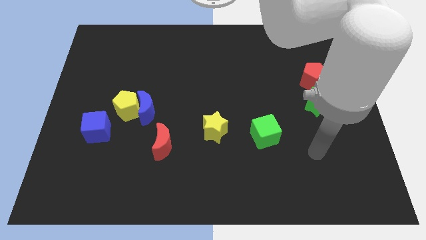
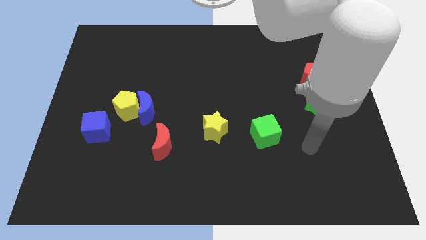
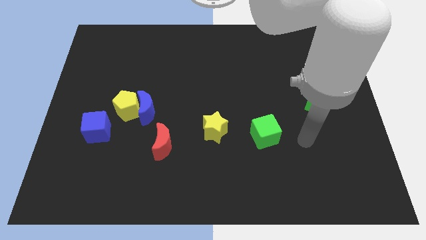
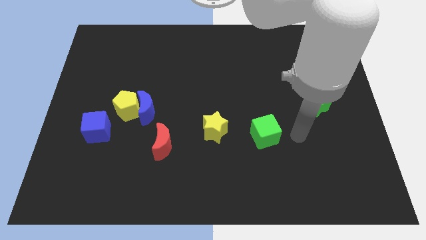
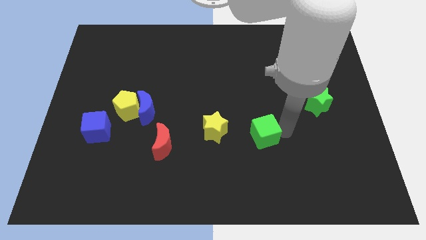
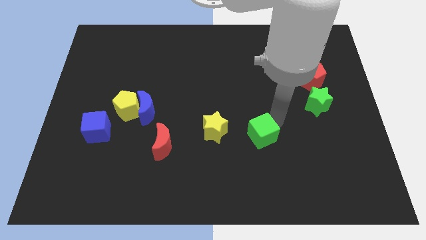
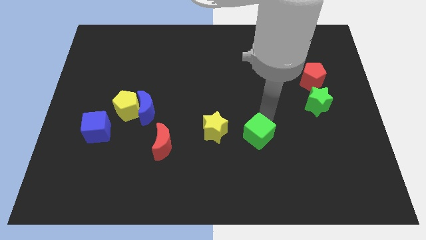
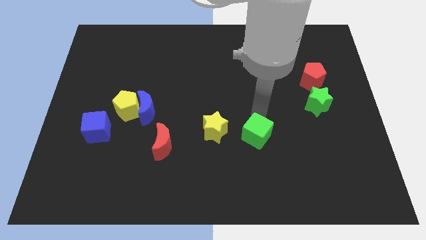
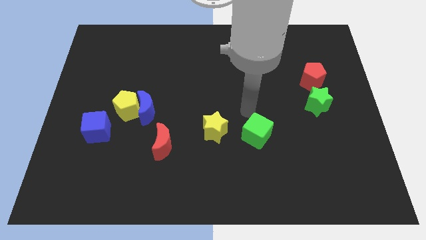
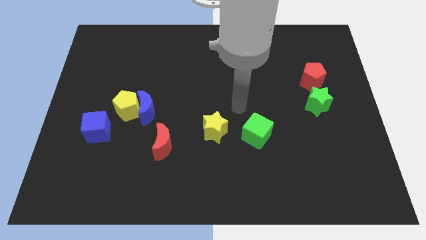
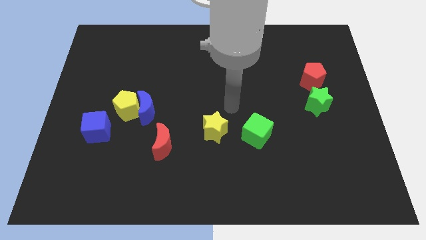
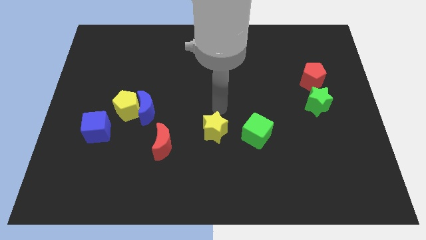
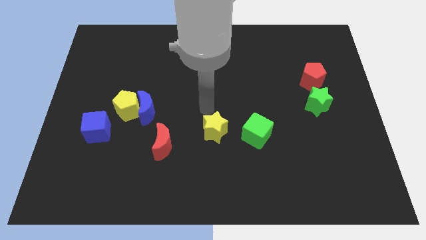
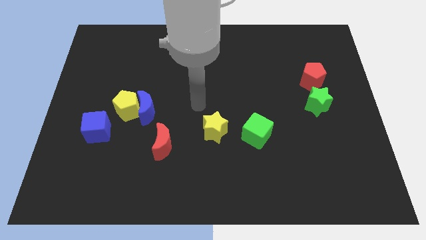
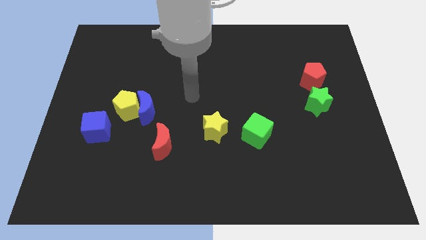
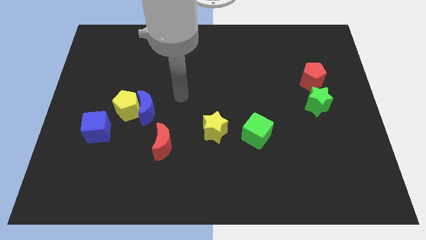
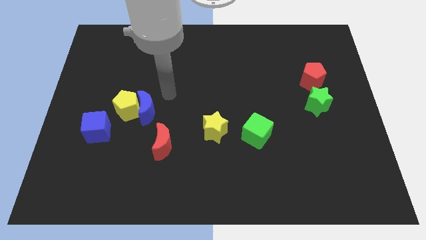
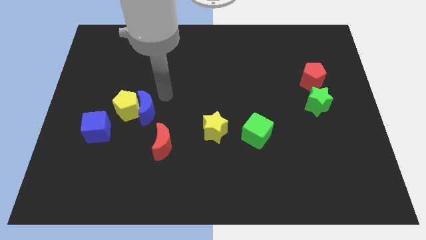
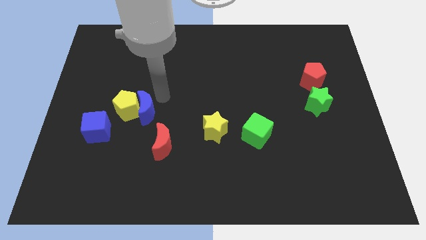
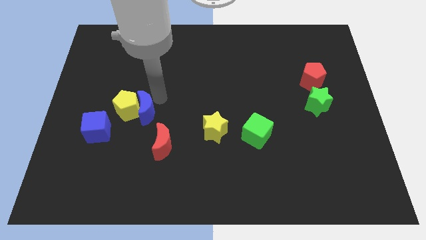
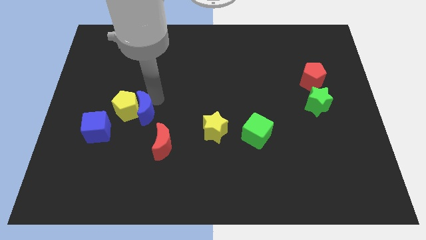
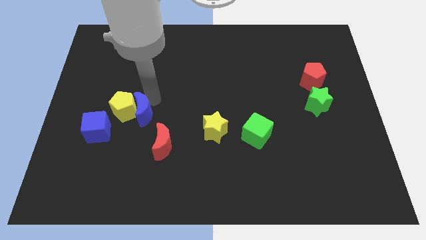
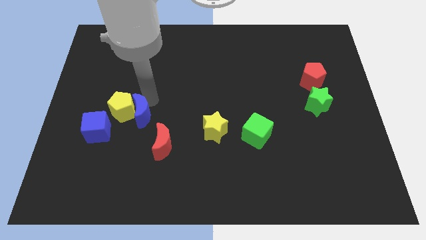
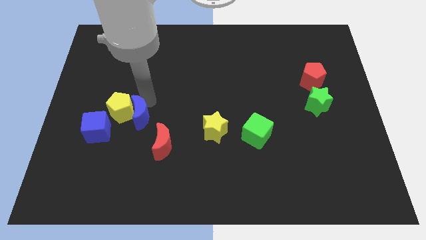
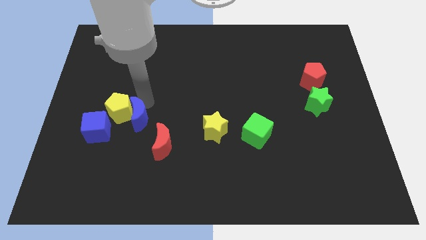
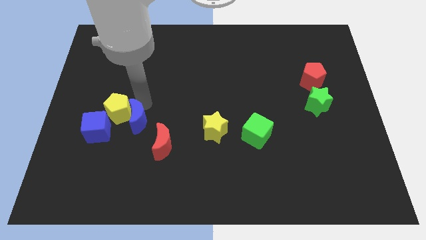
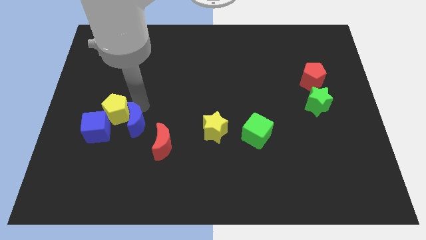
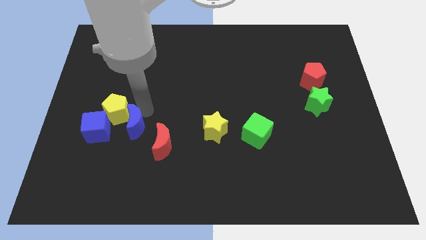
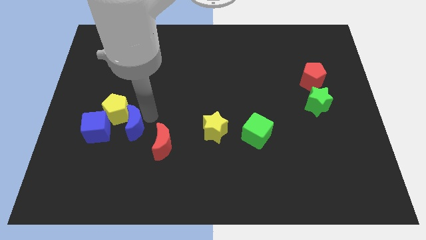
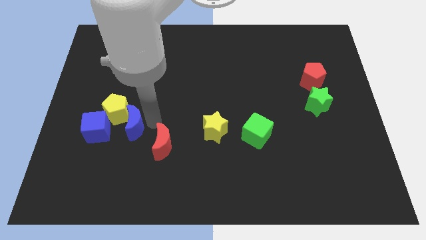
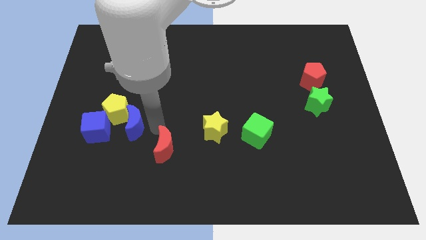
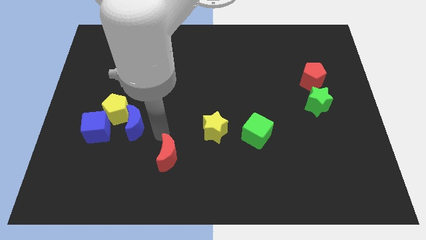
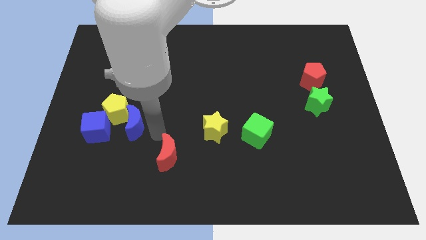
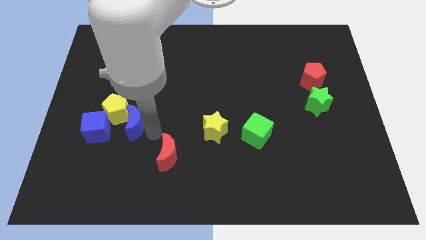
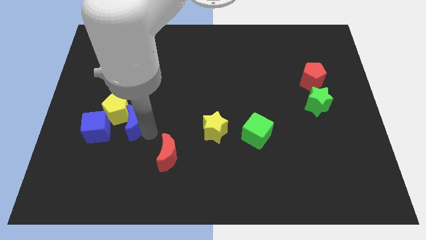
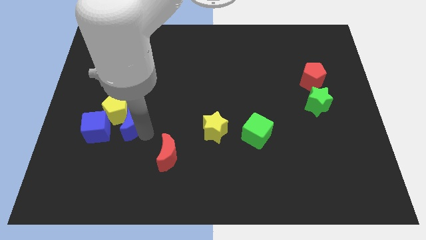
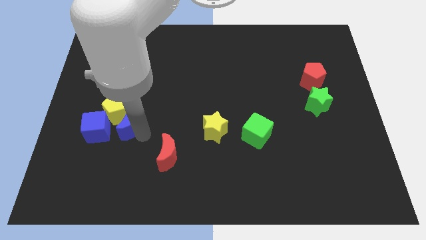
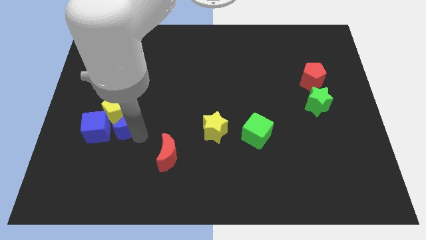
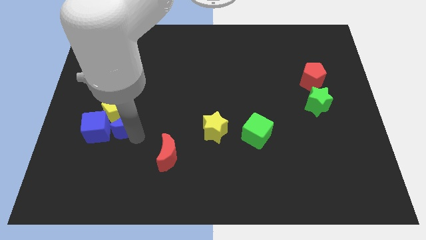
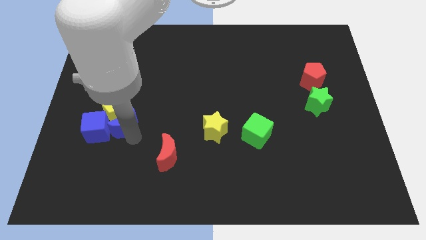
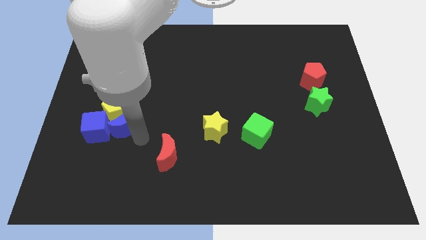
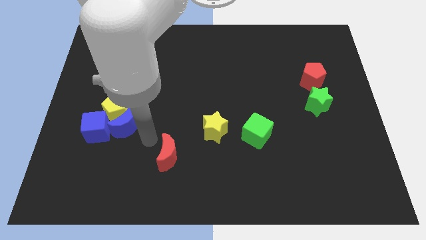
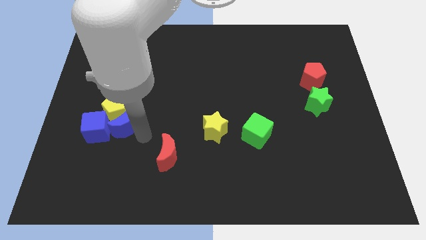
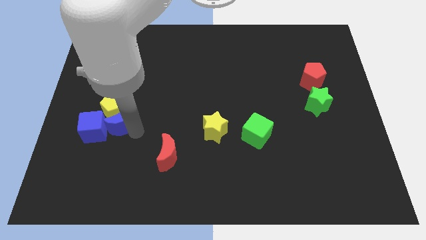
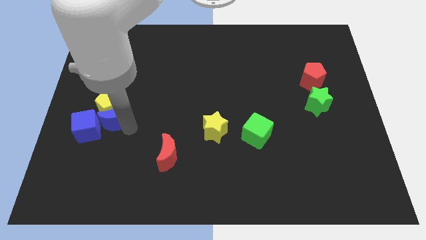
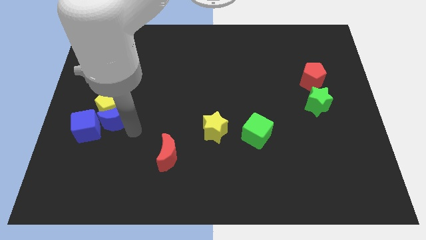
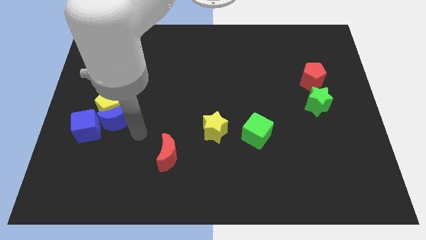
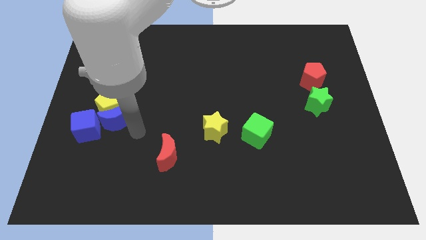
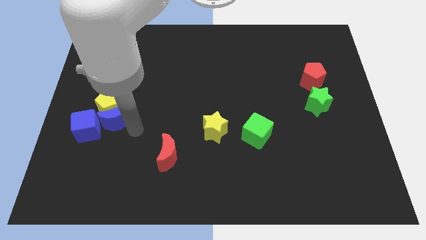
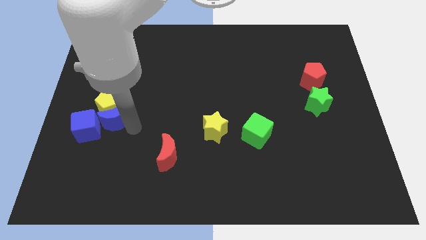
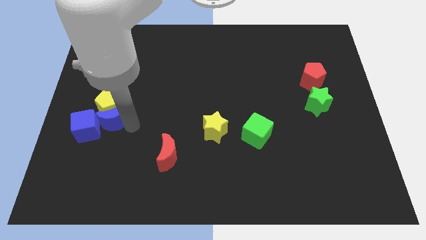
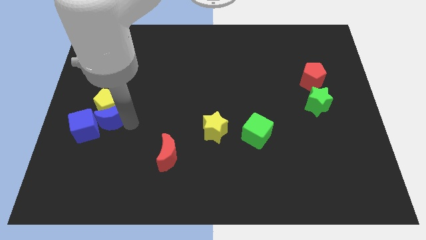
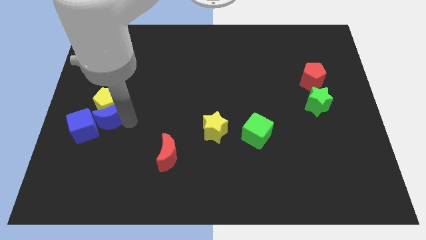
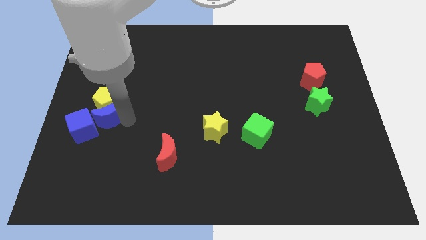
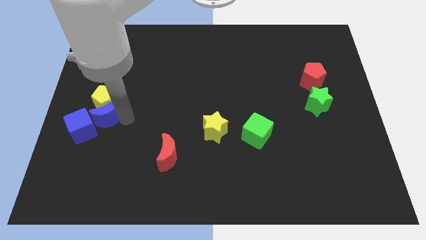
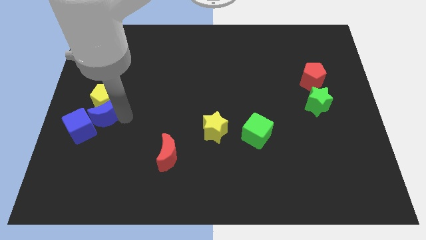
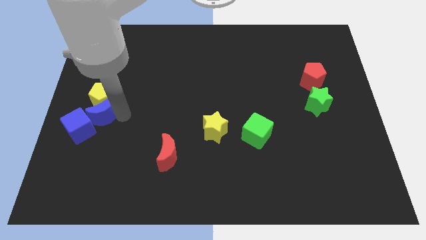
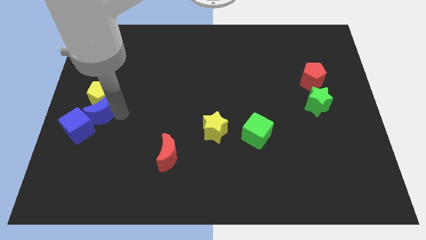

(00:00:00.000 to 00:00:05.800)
push the blue moon to the left side of the board
